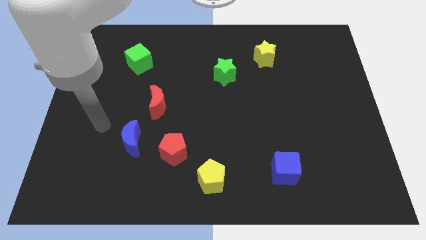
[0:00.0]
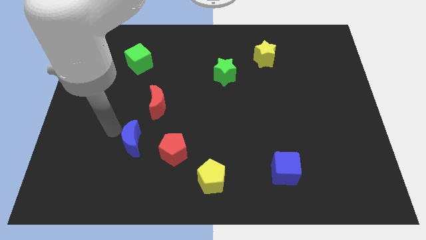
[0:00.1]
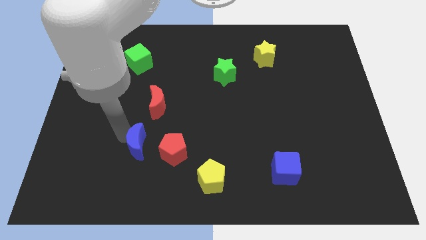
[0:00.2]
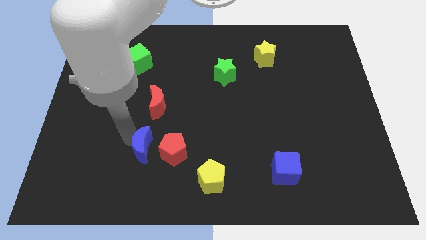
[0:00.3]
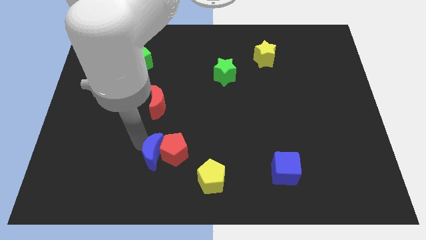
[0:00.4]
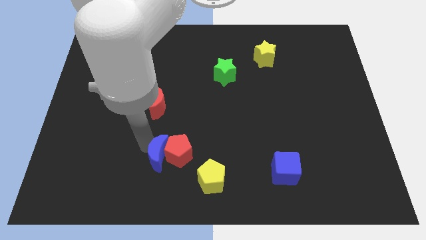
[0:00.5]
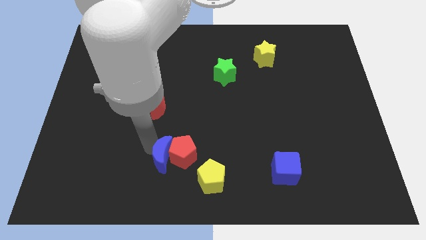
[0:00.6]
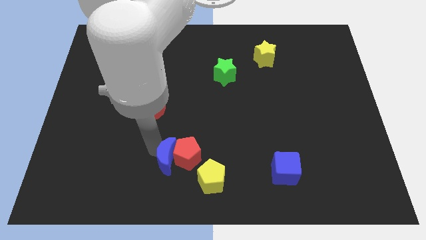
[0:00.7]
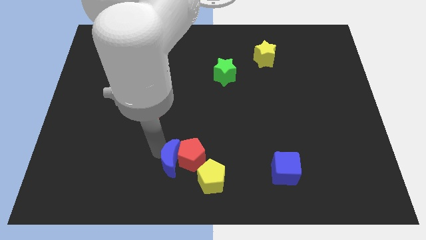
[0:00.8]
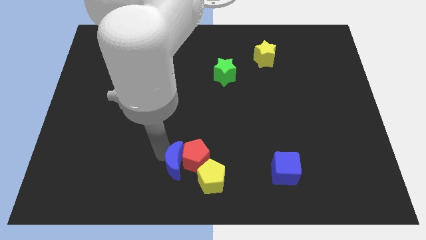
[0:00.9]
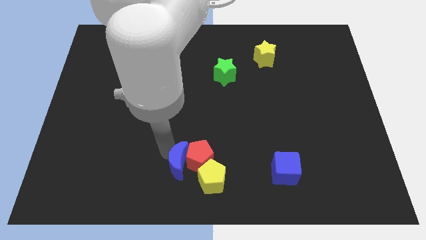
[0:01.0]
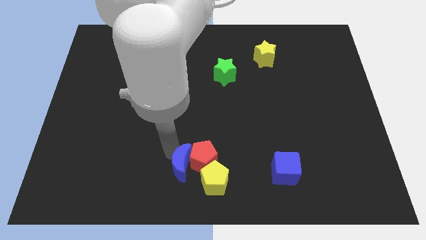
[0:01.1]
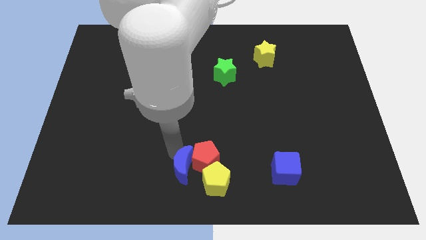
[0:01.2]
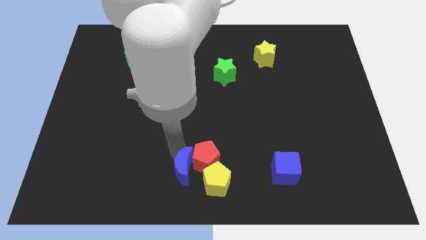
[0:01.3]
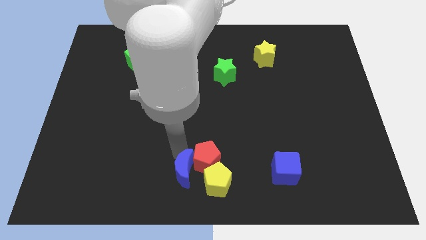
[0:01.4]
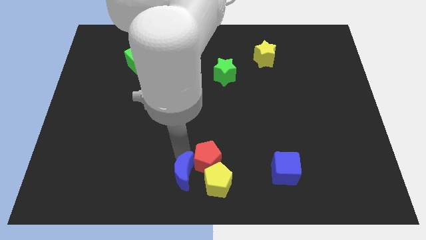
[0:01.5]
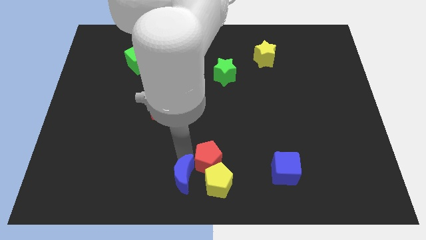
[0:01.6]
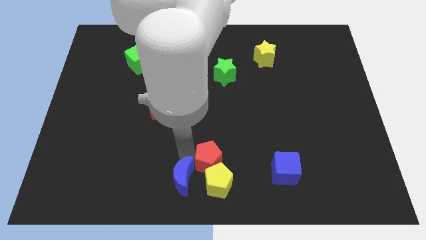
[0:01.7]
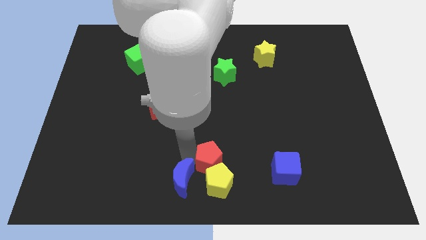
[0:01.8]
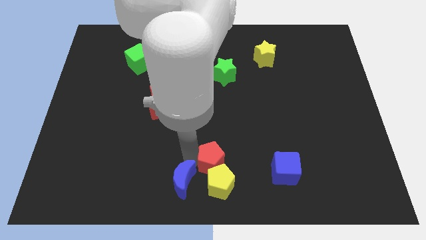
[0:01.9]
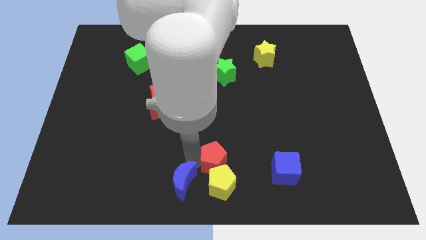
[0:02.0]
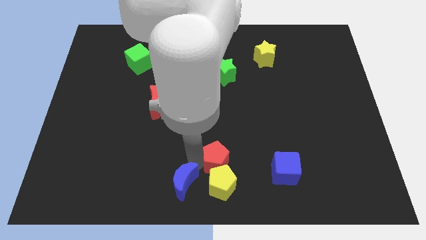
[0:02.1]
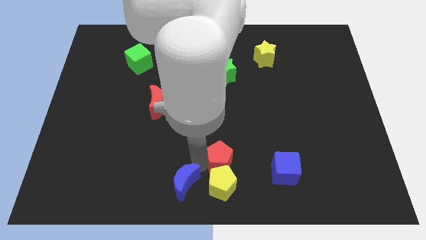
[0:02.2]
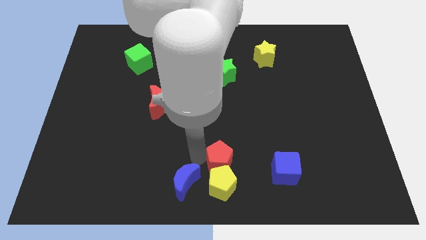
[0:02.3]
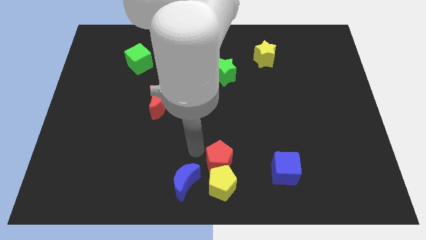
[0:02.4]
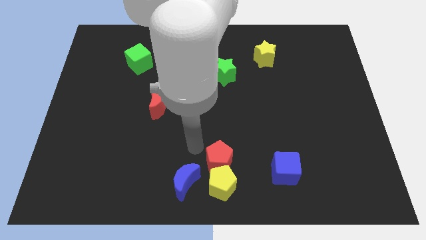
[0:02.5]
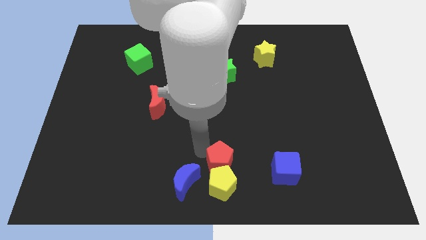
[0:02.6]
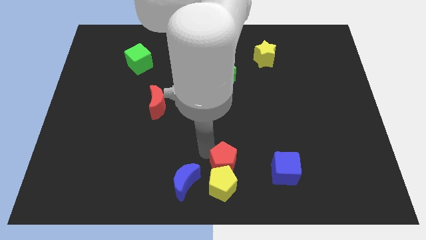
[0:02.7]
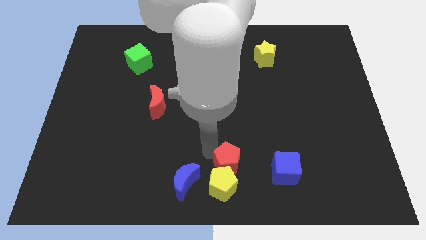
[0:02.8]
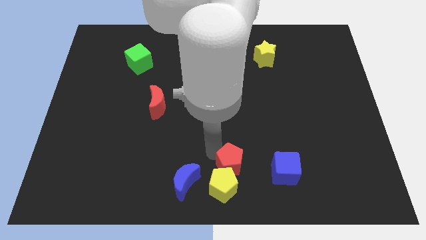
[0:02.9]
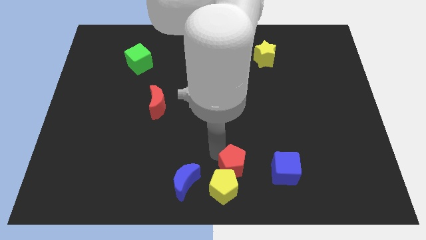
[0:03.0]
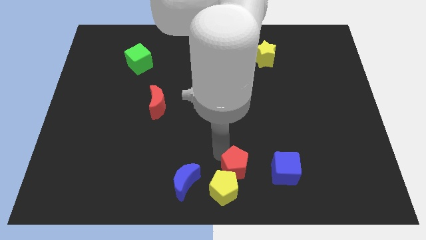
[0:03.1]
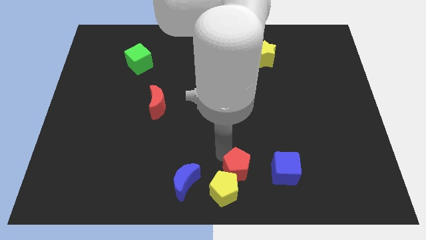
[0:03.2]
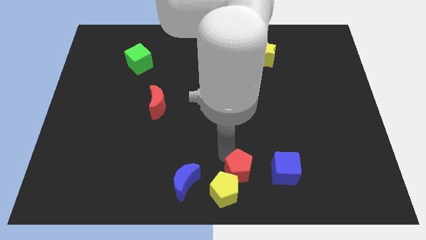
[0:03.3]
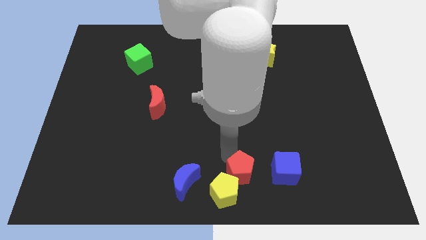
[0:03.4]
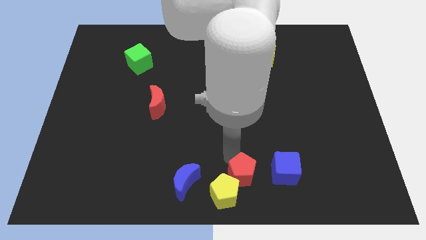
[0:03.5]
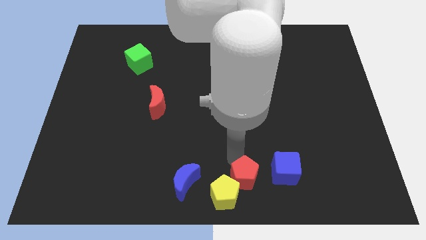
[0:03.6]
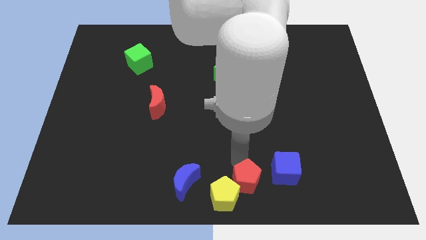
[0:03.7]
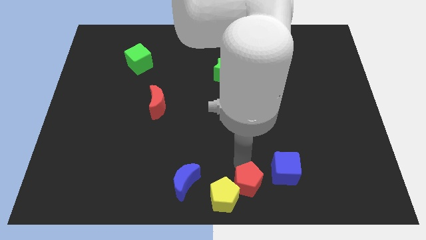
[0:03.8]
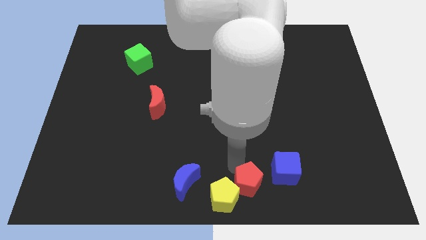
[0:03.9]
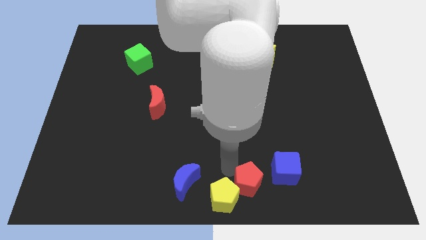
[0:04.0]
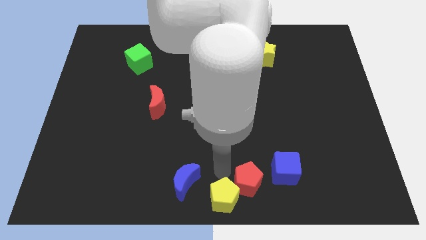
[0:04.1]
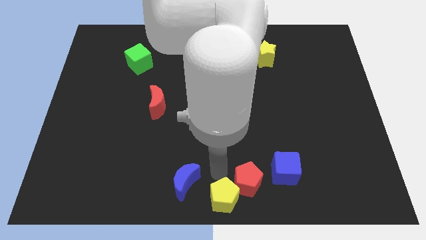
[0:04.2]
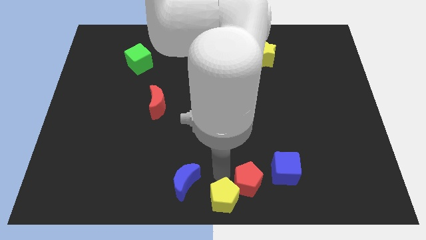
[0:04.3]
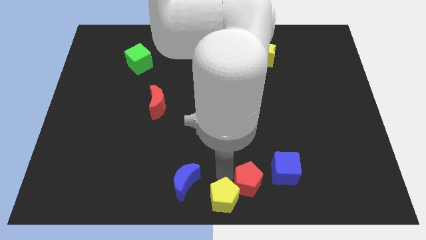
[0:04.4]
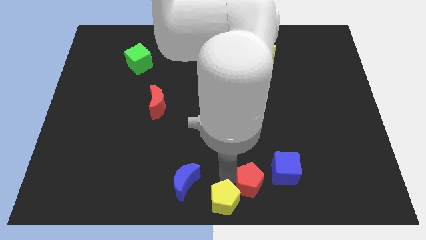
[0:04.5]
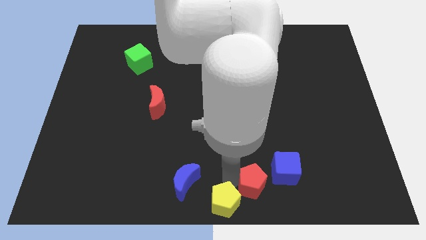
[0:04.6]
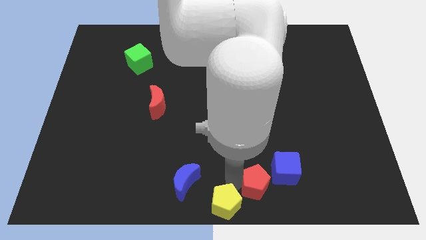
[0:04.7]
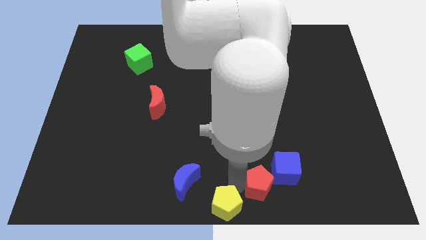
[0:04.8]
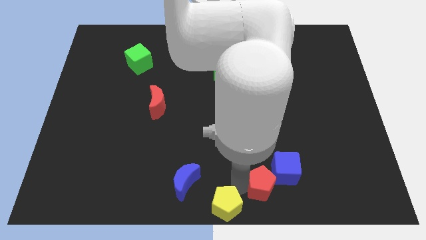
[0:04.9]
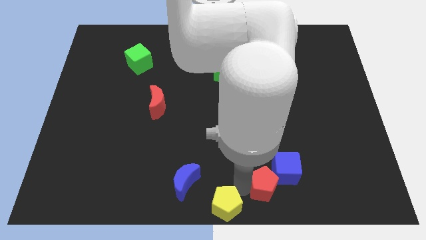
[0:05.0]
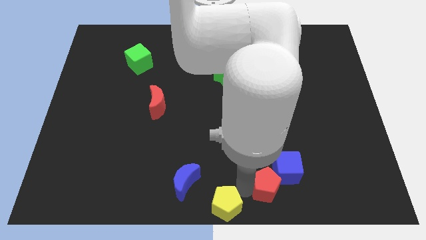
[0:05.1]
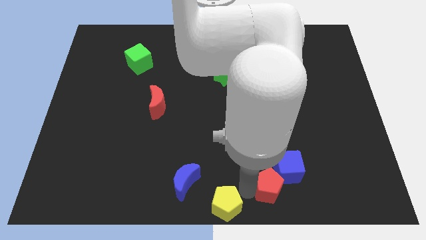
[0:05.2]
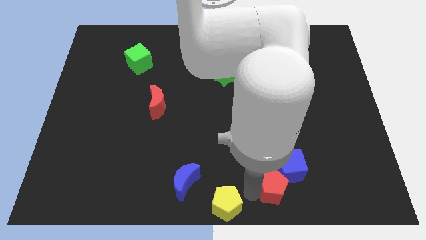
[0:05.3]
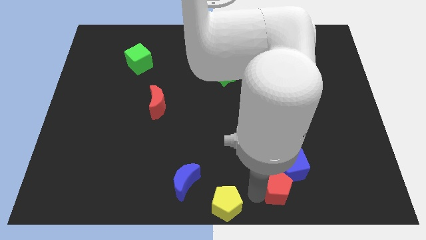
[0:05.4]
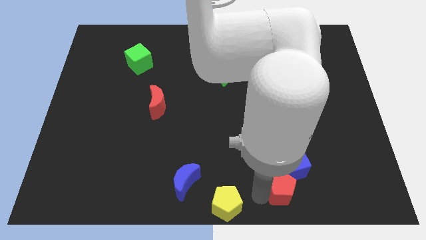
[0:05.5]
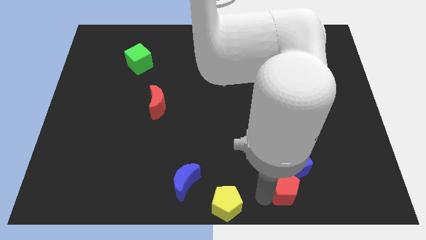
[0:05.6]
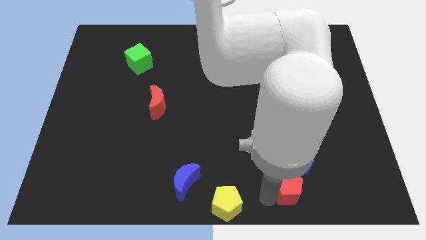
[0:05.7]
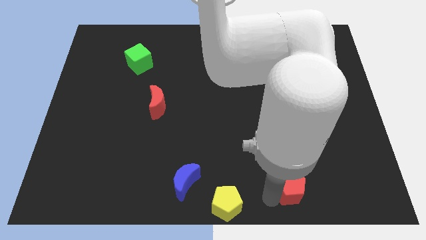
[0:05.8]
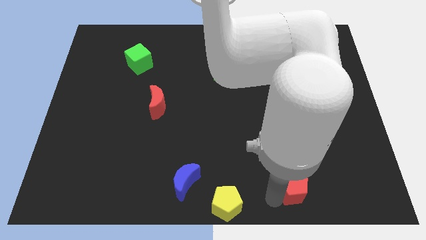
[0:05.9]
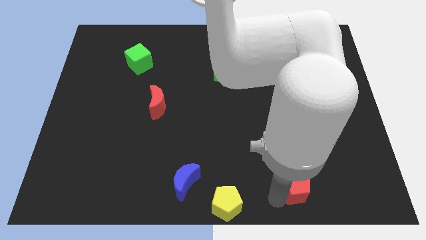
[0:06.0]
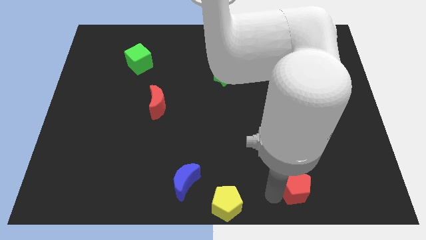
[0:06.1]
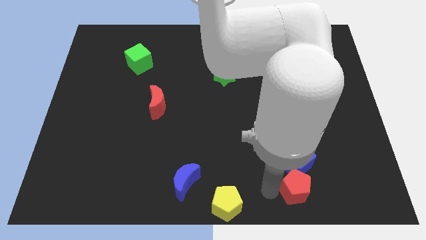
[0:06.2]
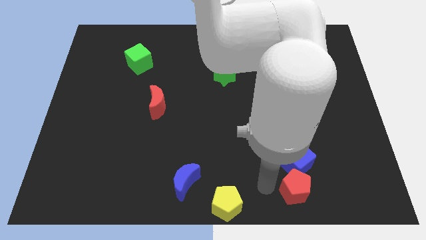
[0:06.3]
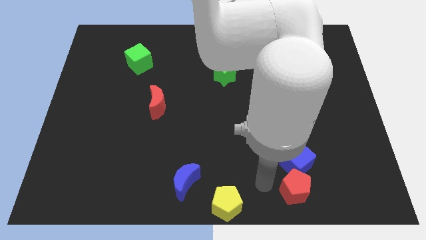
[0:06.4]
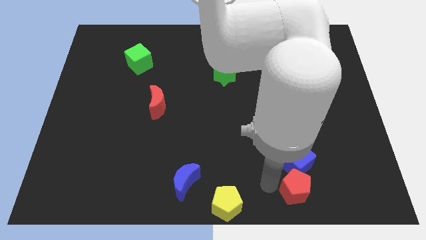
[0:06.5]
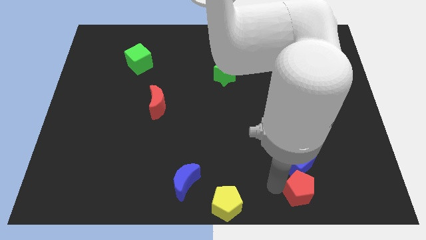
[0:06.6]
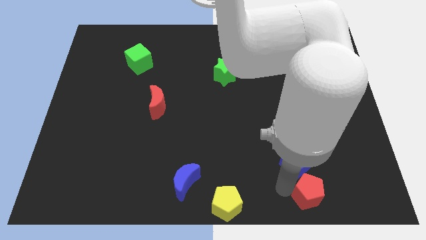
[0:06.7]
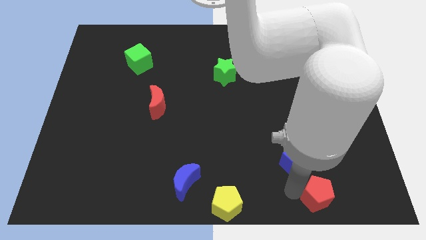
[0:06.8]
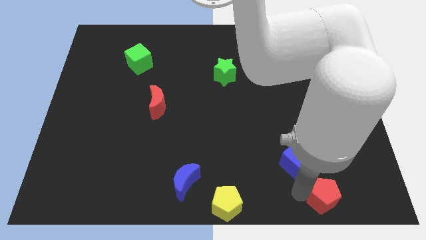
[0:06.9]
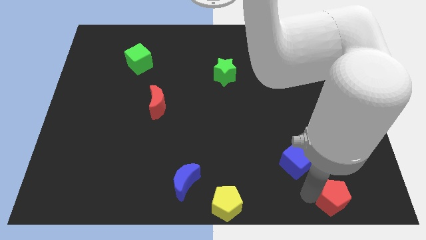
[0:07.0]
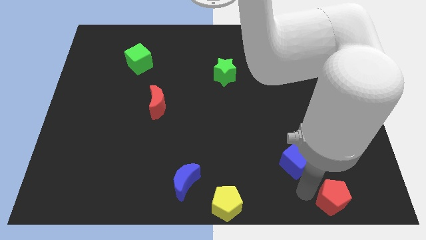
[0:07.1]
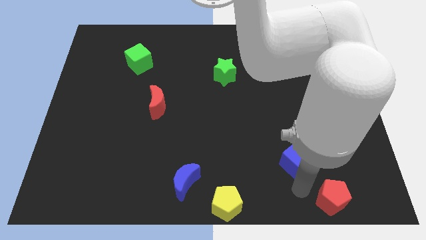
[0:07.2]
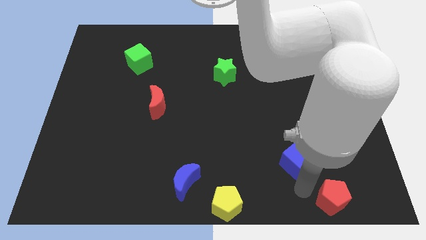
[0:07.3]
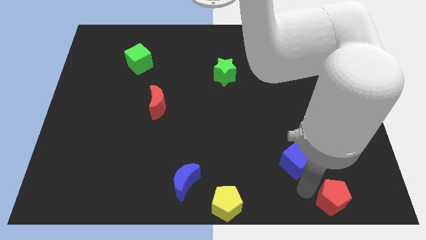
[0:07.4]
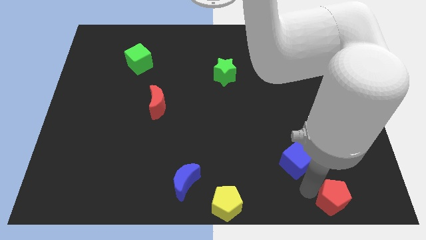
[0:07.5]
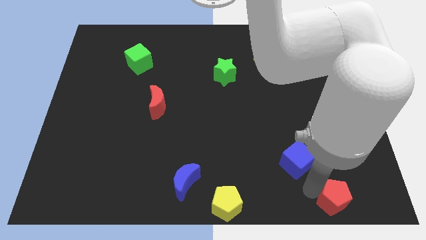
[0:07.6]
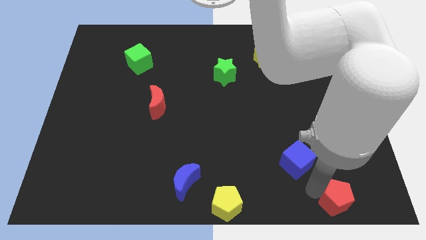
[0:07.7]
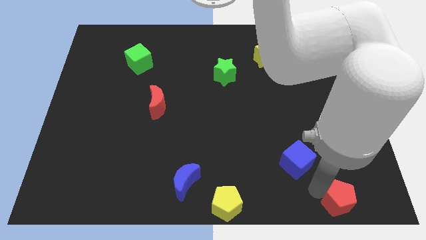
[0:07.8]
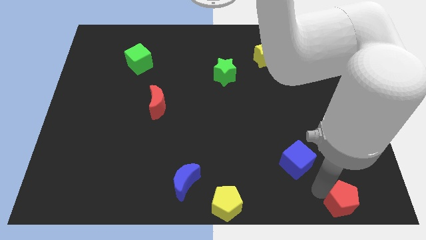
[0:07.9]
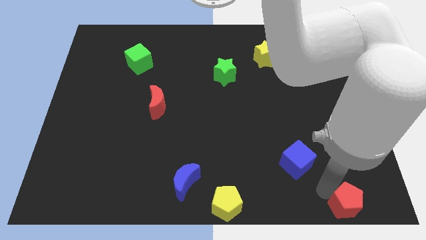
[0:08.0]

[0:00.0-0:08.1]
push the red pentagon to the bottom right
